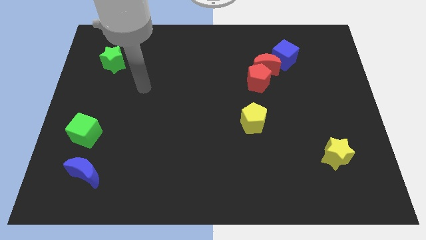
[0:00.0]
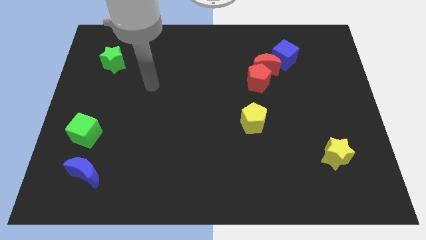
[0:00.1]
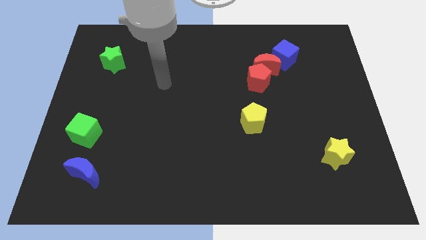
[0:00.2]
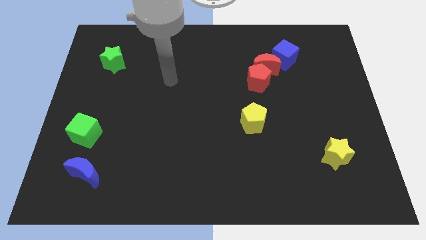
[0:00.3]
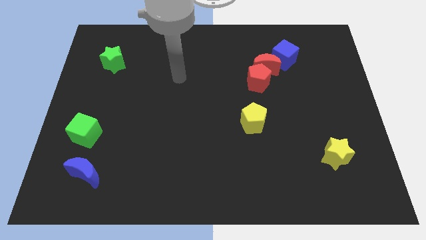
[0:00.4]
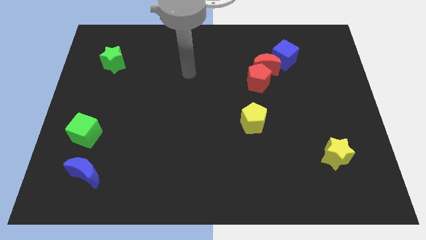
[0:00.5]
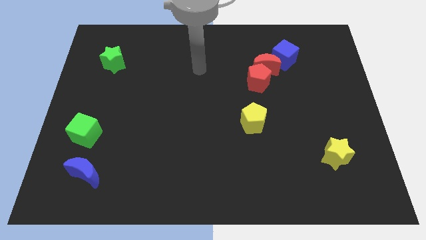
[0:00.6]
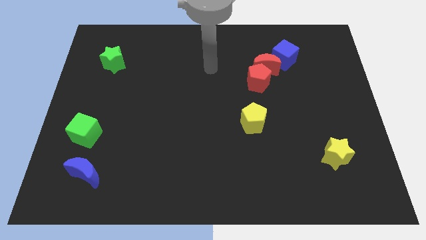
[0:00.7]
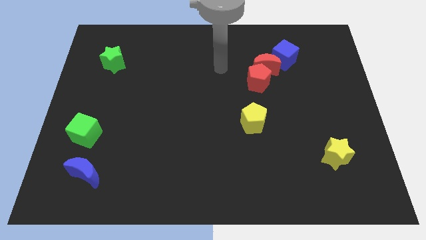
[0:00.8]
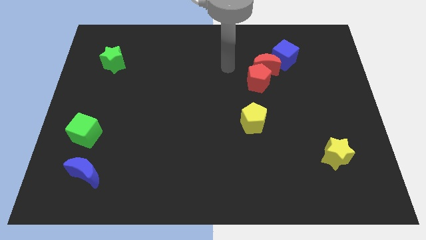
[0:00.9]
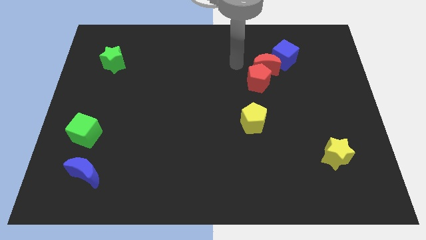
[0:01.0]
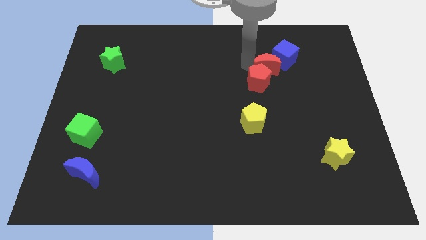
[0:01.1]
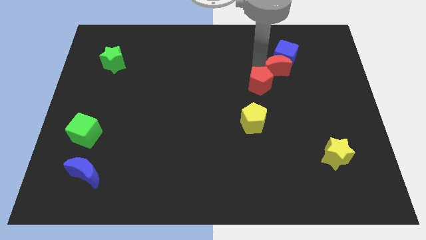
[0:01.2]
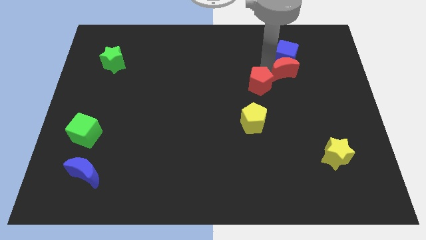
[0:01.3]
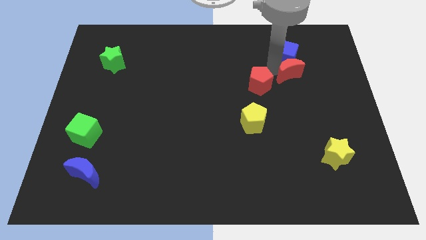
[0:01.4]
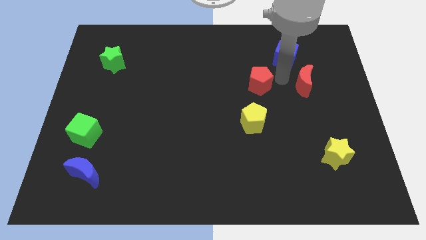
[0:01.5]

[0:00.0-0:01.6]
separate the red pentagon from the red moon

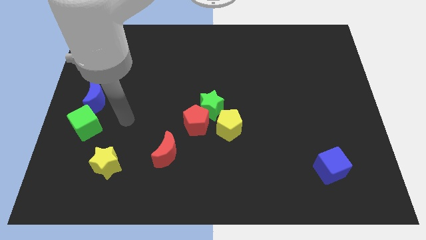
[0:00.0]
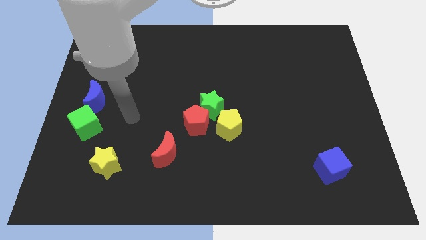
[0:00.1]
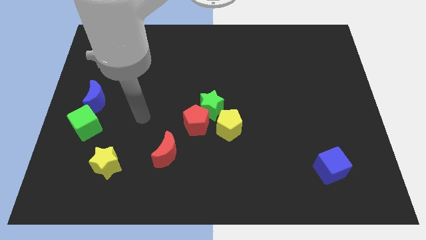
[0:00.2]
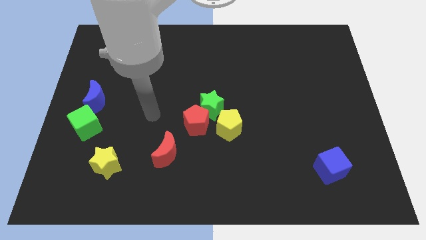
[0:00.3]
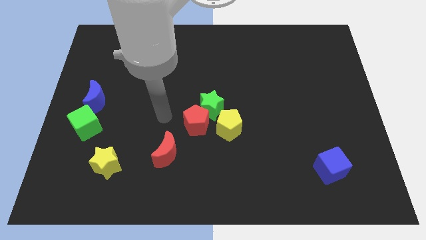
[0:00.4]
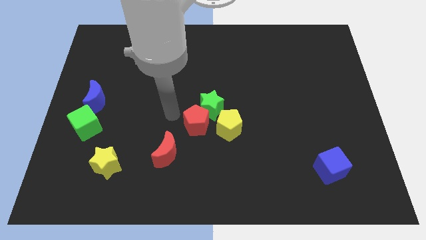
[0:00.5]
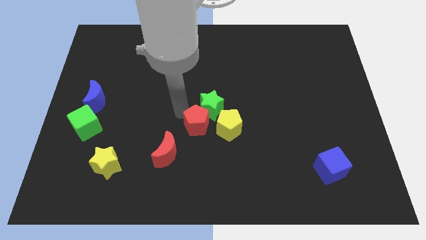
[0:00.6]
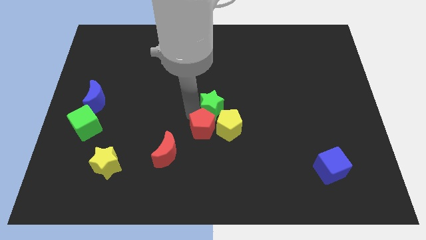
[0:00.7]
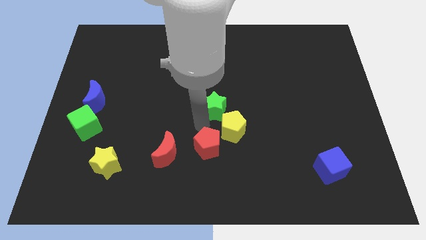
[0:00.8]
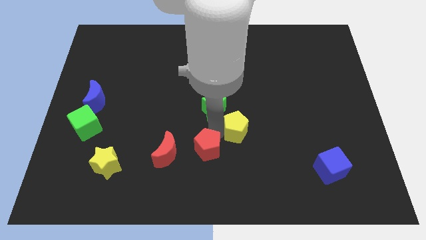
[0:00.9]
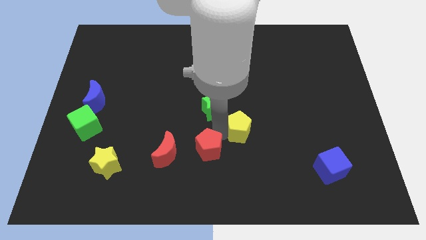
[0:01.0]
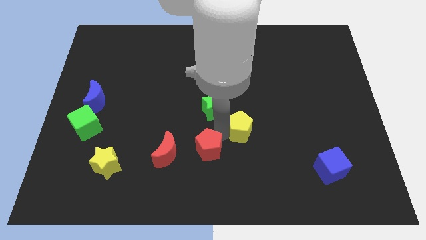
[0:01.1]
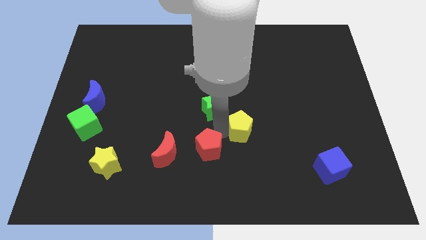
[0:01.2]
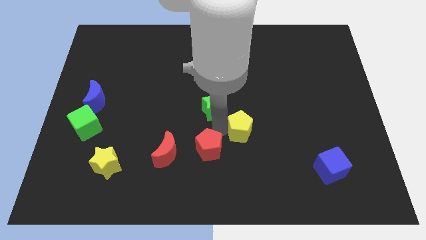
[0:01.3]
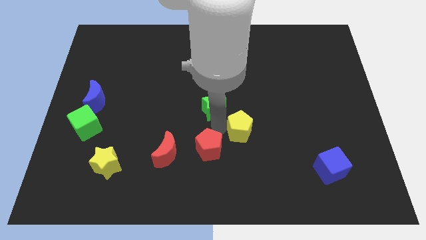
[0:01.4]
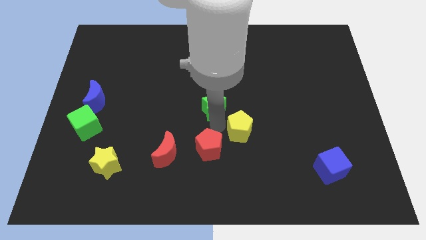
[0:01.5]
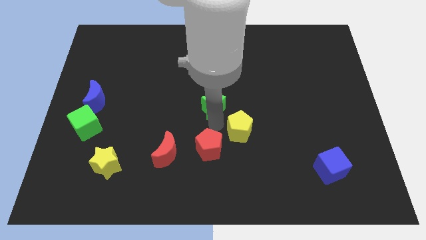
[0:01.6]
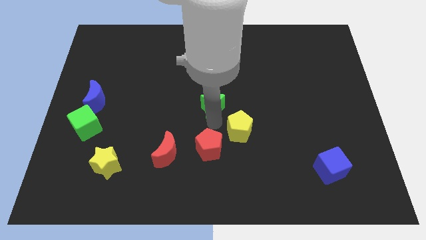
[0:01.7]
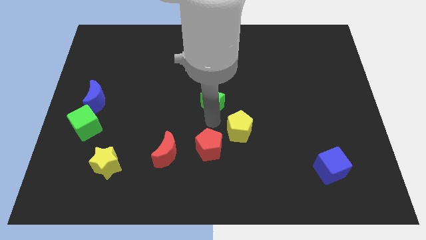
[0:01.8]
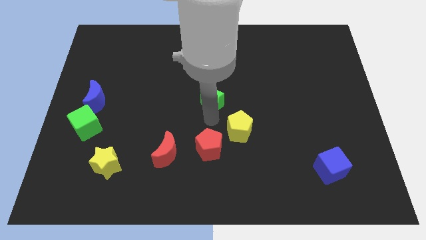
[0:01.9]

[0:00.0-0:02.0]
move the green star away from the red pentagon and yellow pentagon

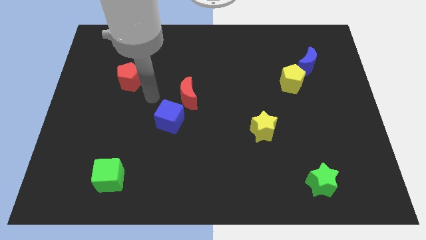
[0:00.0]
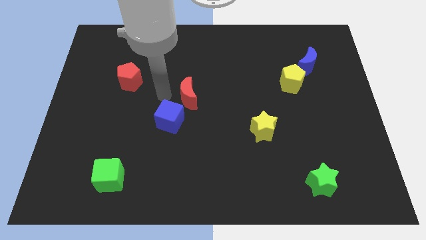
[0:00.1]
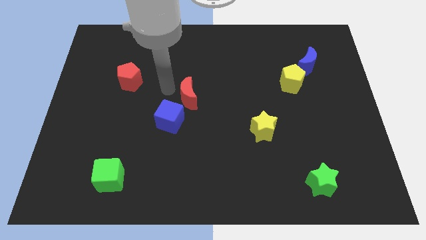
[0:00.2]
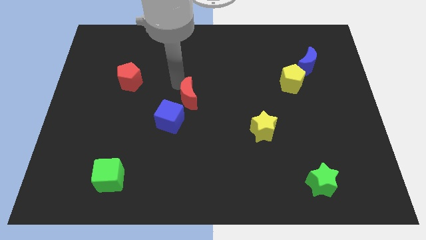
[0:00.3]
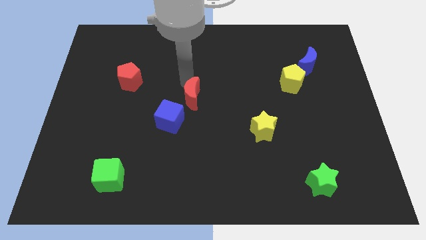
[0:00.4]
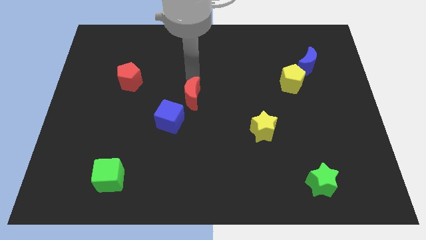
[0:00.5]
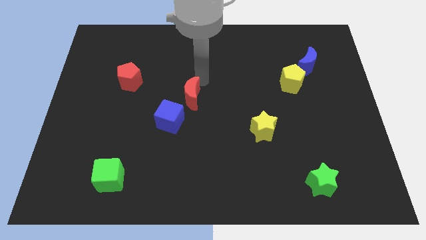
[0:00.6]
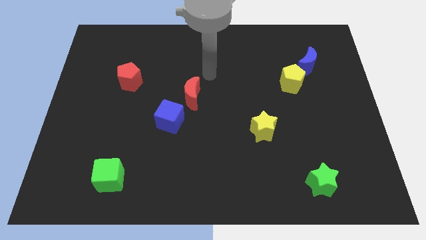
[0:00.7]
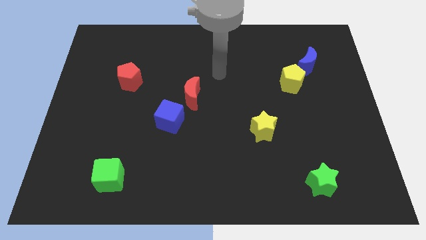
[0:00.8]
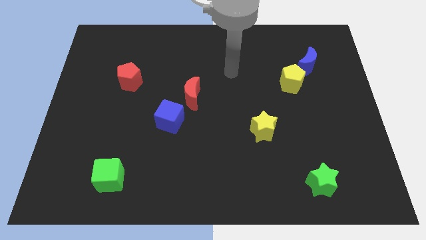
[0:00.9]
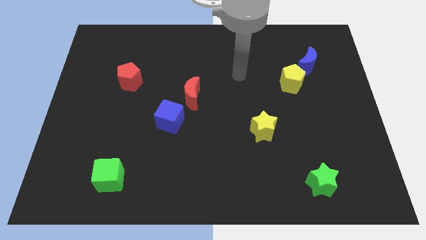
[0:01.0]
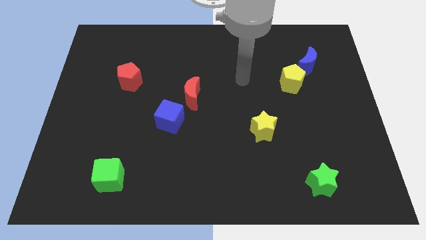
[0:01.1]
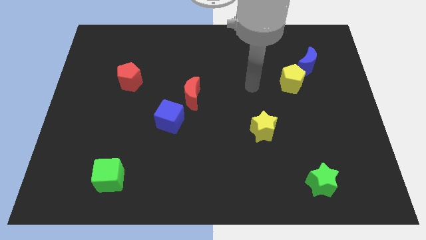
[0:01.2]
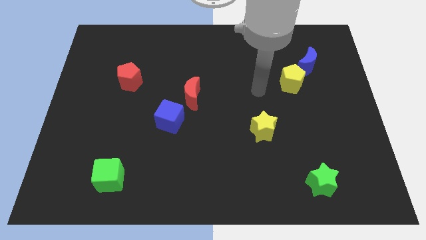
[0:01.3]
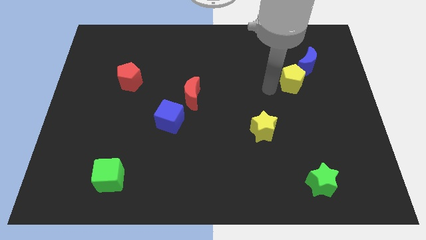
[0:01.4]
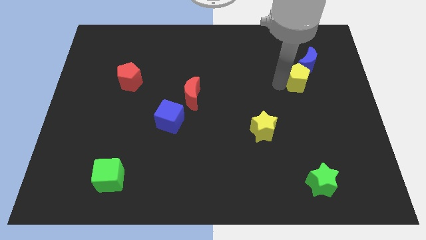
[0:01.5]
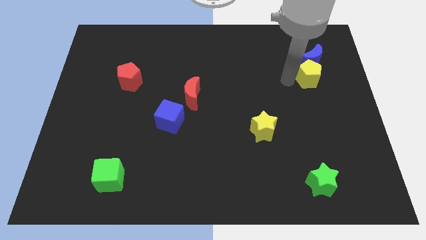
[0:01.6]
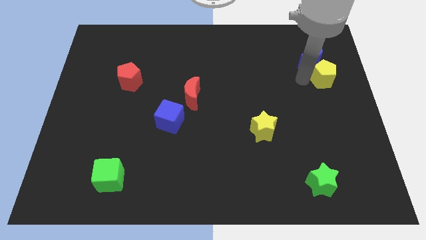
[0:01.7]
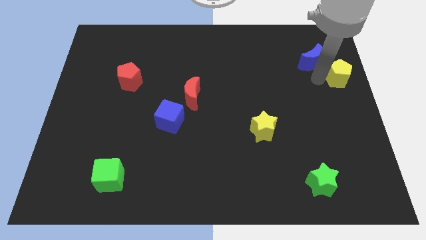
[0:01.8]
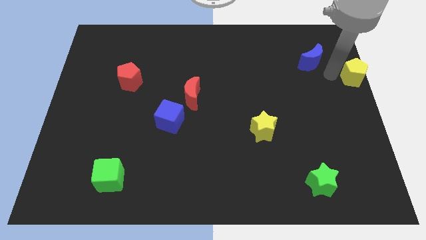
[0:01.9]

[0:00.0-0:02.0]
separate the blue moon from the yellow pentagon

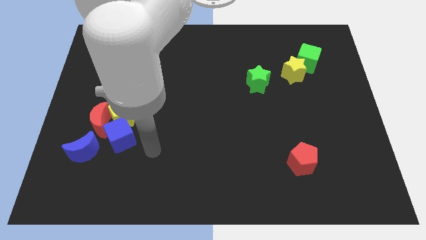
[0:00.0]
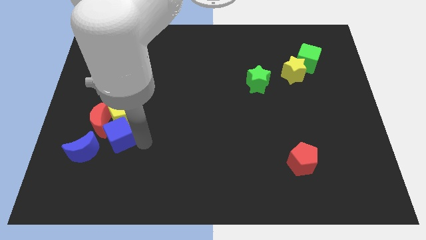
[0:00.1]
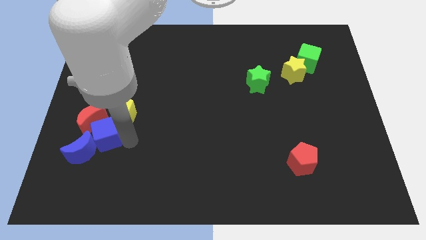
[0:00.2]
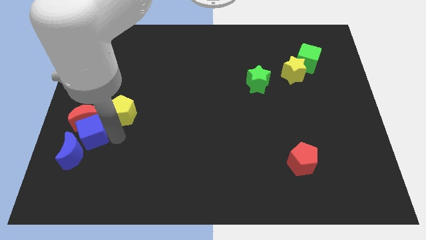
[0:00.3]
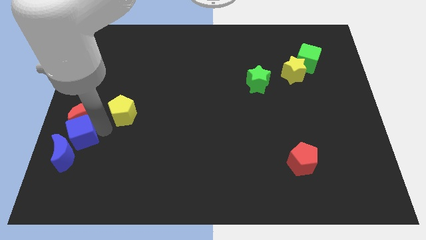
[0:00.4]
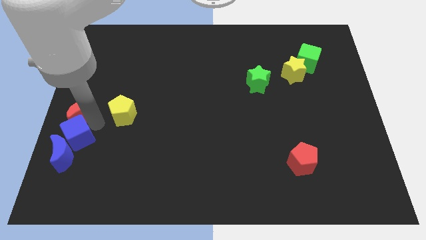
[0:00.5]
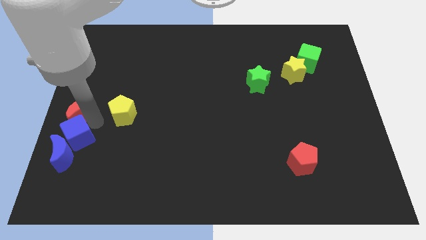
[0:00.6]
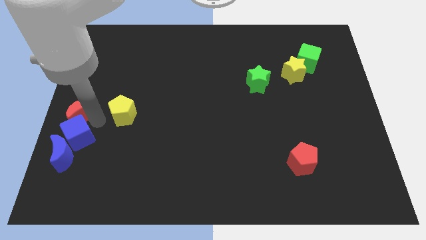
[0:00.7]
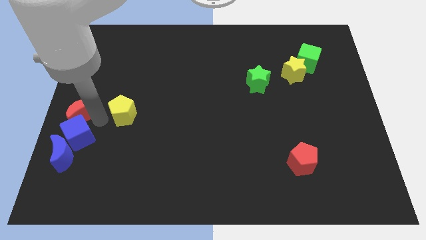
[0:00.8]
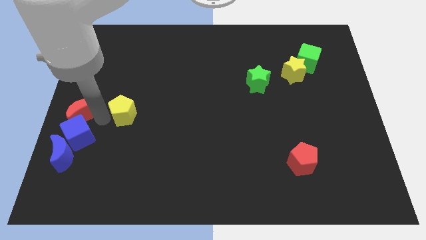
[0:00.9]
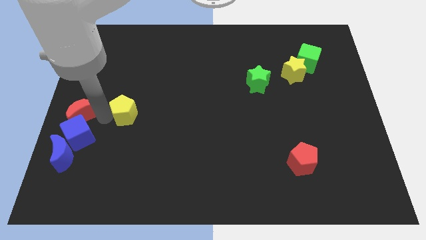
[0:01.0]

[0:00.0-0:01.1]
separate the yellow pentagon from the red moon and blue cube

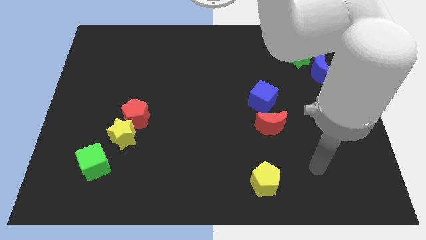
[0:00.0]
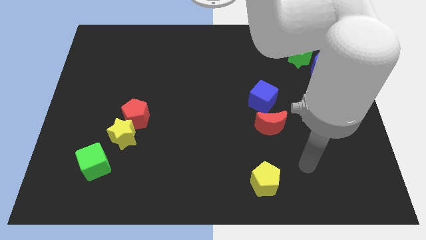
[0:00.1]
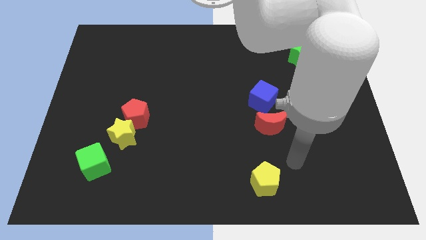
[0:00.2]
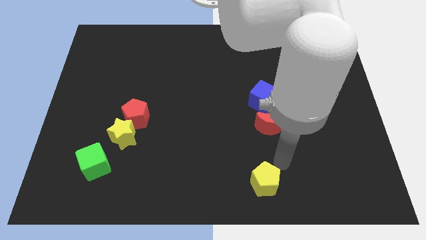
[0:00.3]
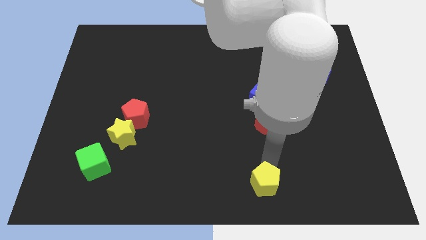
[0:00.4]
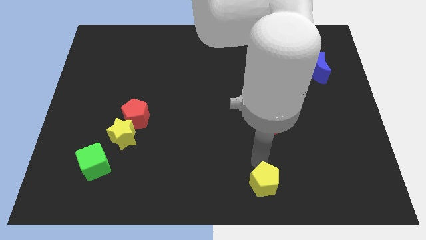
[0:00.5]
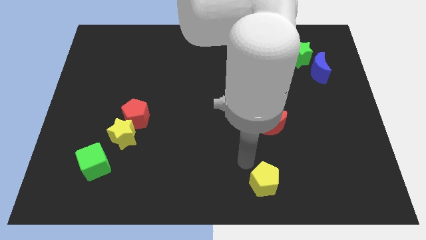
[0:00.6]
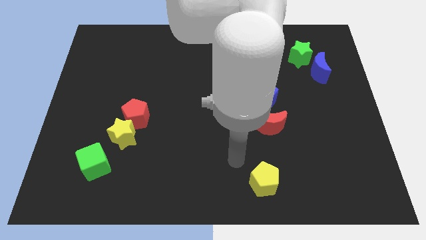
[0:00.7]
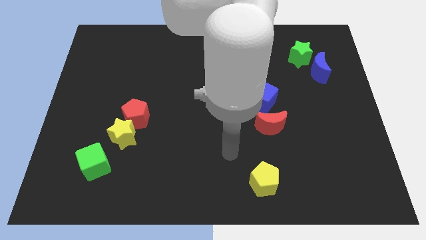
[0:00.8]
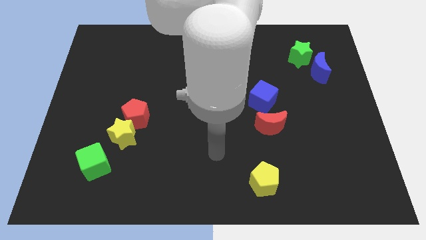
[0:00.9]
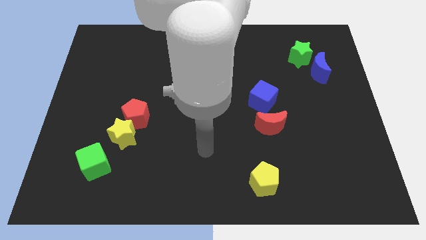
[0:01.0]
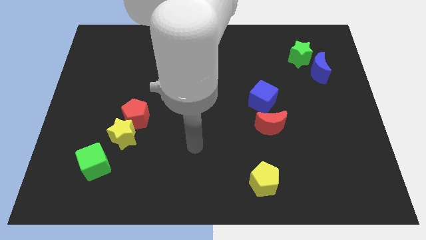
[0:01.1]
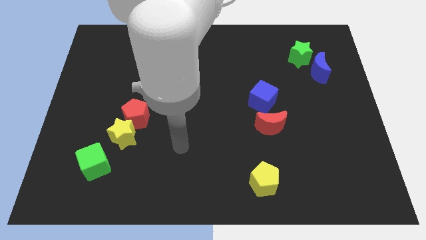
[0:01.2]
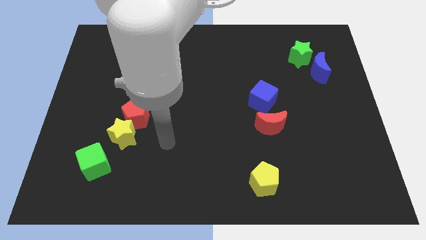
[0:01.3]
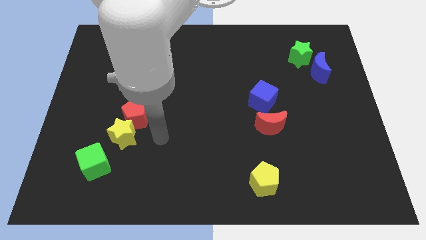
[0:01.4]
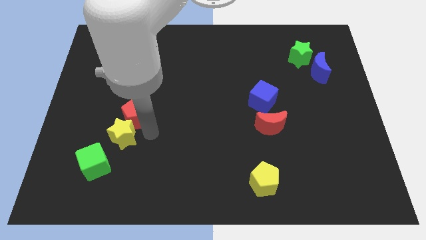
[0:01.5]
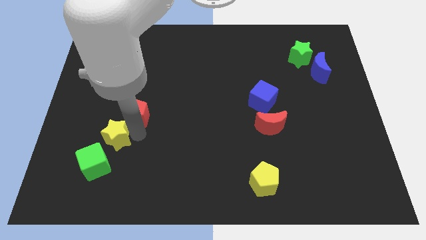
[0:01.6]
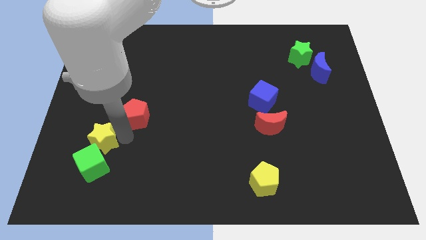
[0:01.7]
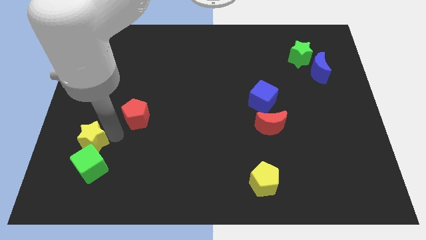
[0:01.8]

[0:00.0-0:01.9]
move the red pentagon away from the yellow star

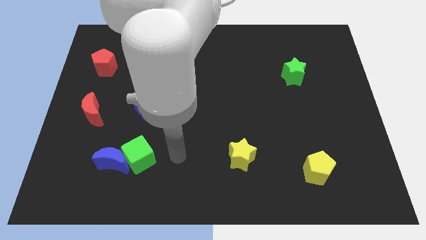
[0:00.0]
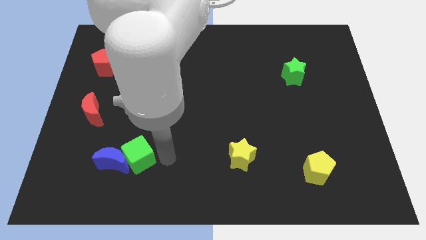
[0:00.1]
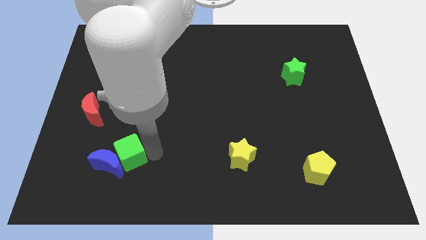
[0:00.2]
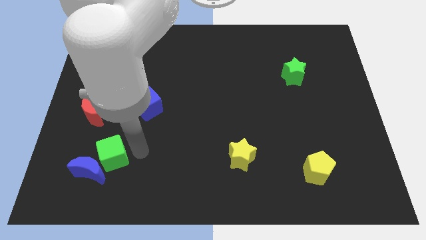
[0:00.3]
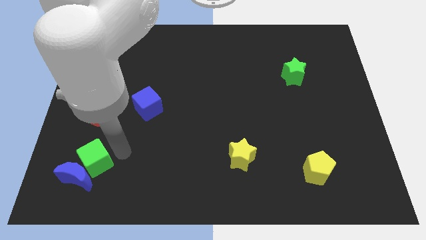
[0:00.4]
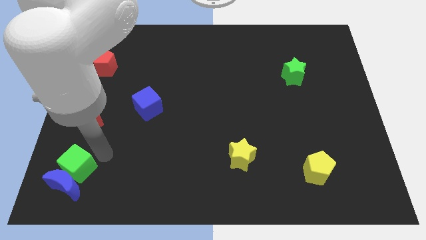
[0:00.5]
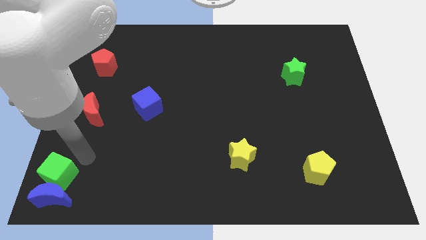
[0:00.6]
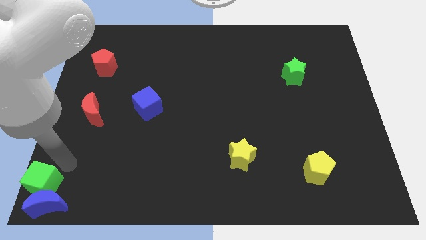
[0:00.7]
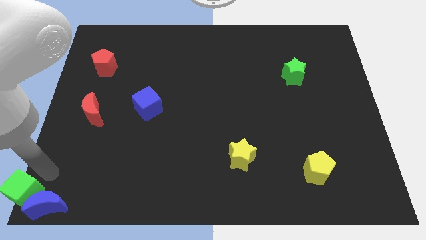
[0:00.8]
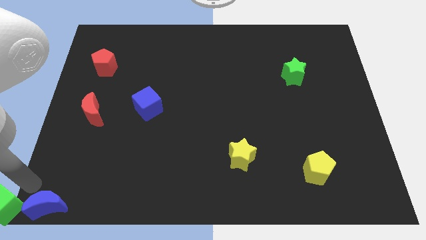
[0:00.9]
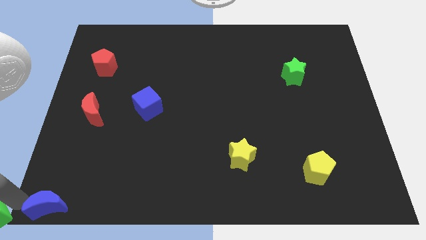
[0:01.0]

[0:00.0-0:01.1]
move the blue moon away from the green cube
